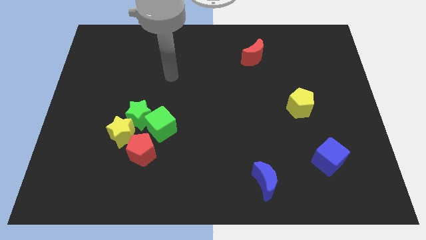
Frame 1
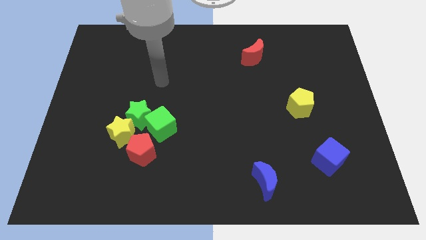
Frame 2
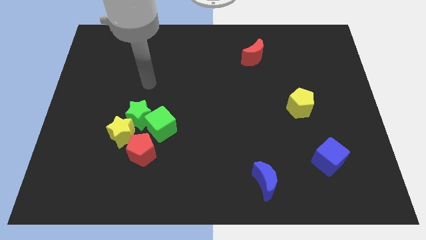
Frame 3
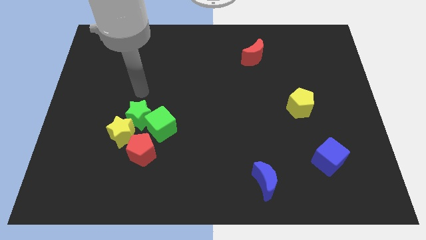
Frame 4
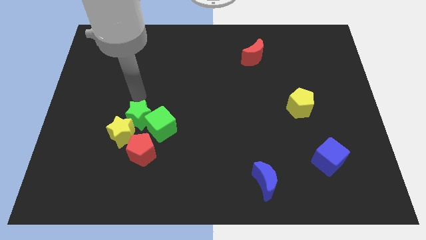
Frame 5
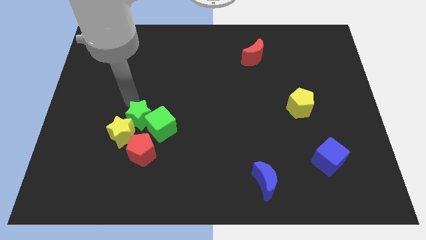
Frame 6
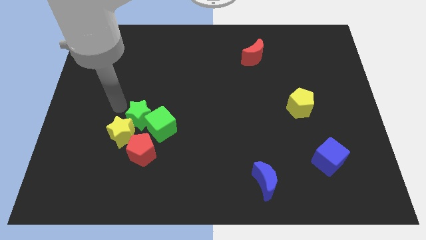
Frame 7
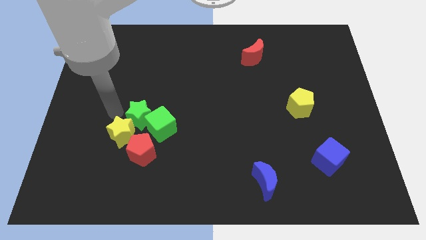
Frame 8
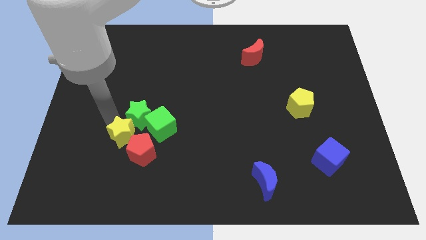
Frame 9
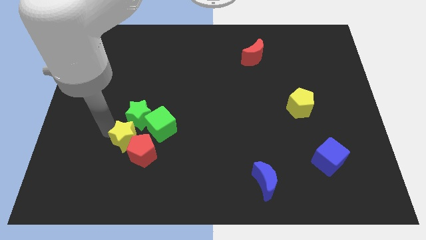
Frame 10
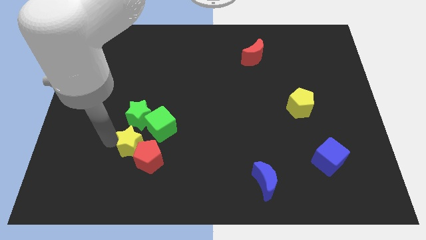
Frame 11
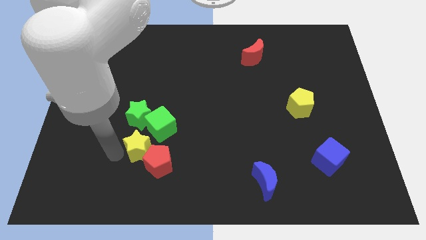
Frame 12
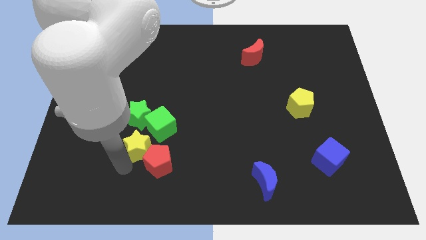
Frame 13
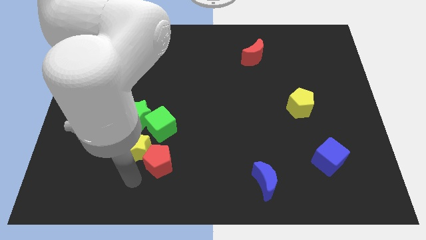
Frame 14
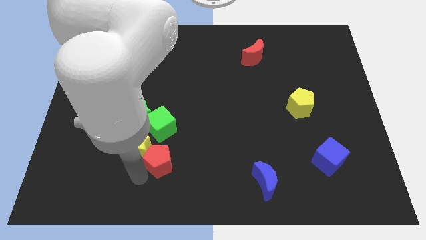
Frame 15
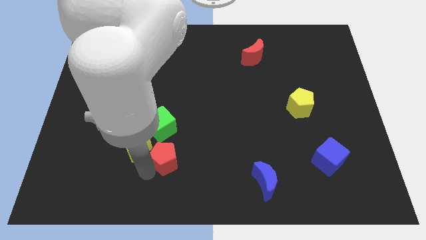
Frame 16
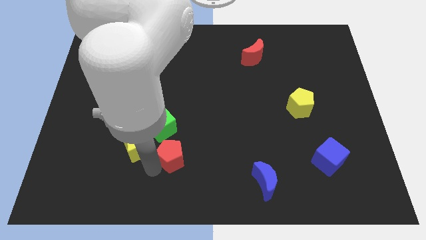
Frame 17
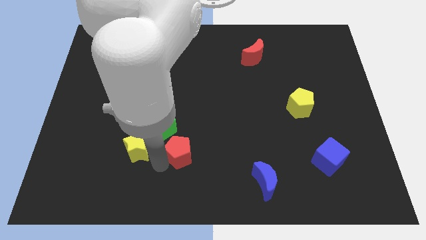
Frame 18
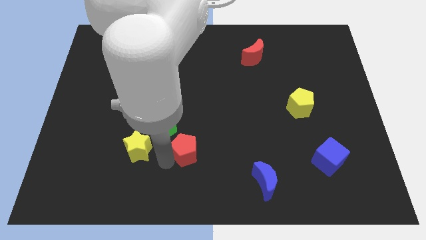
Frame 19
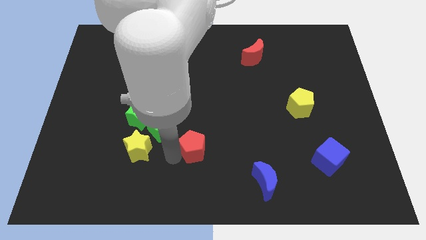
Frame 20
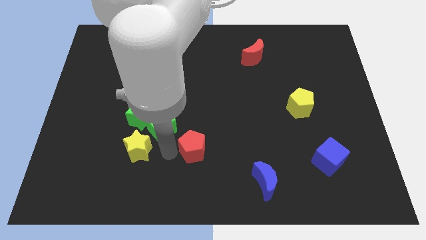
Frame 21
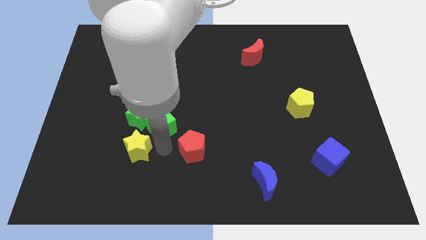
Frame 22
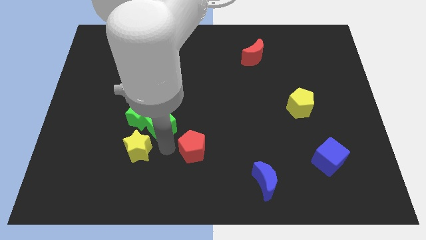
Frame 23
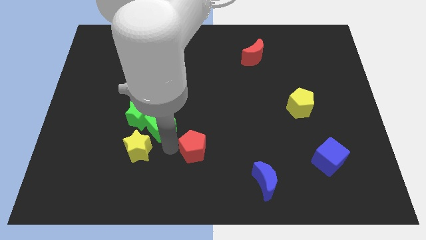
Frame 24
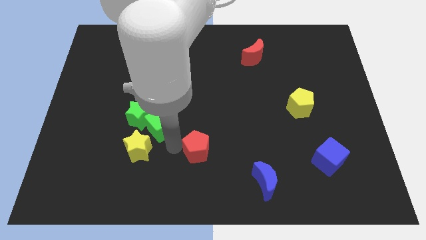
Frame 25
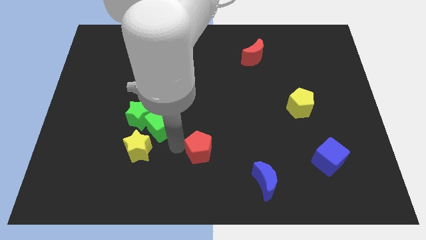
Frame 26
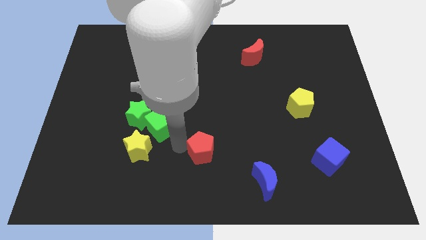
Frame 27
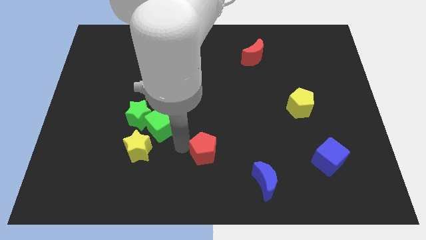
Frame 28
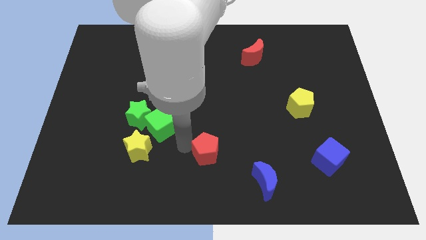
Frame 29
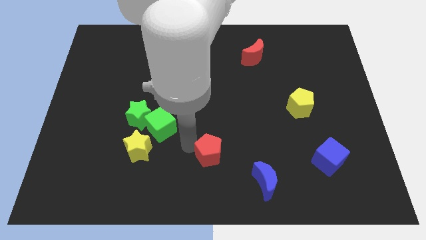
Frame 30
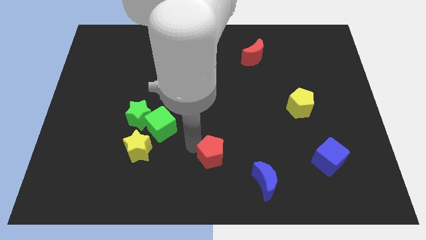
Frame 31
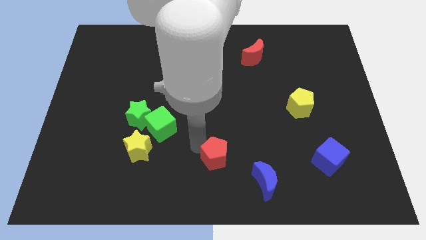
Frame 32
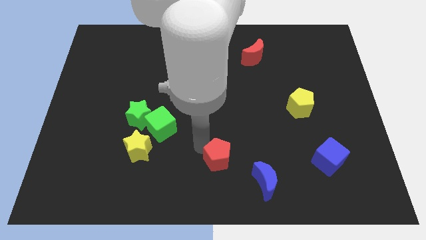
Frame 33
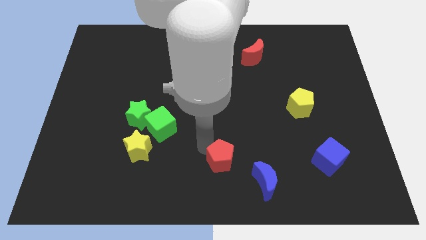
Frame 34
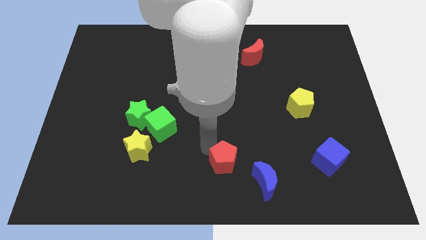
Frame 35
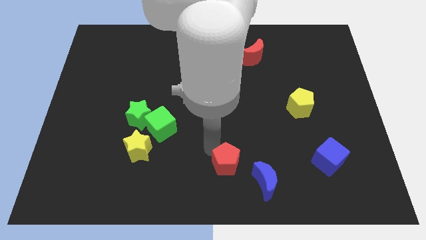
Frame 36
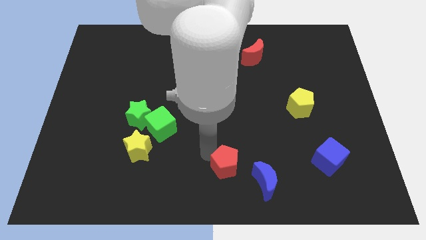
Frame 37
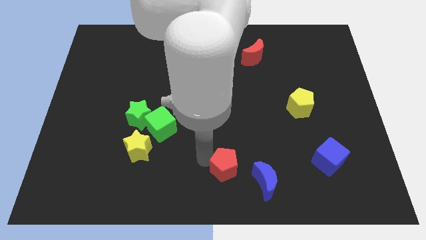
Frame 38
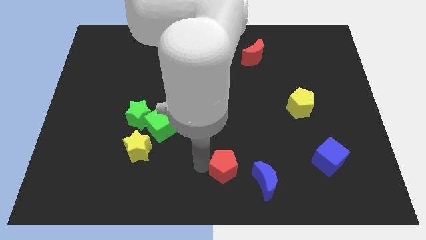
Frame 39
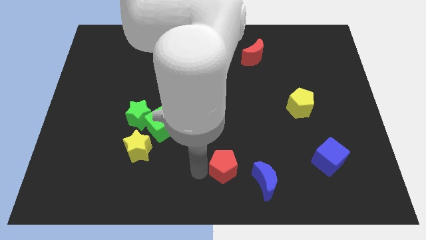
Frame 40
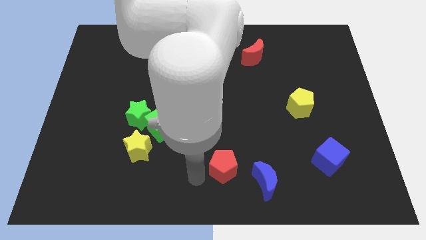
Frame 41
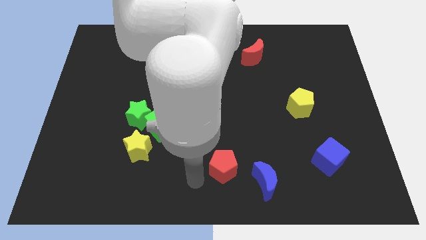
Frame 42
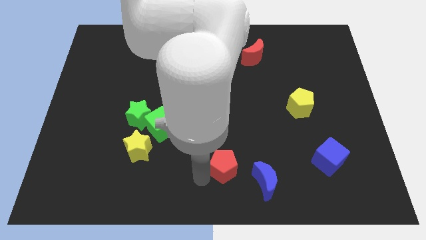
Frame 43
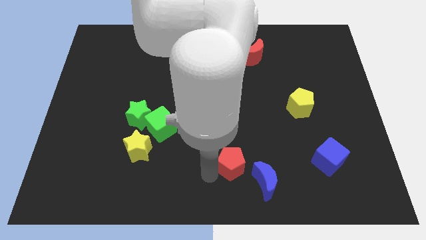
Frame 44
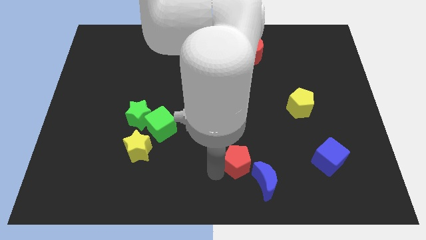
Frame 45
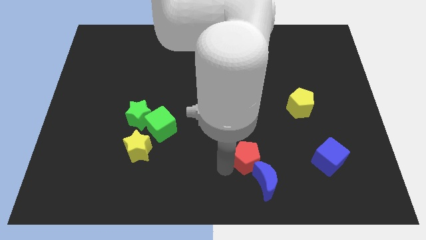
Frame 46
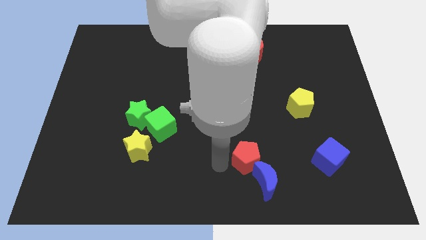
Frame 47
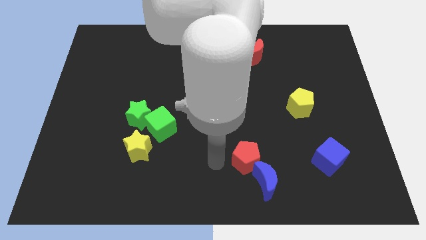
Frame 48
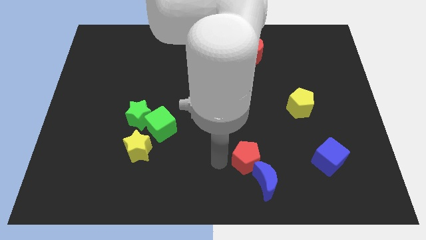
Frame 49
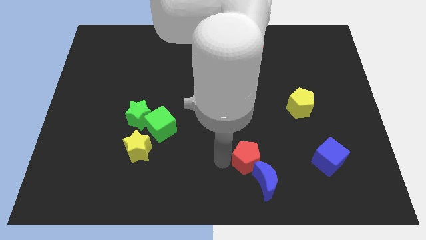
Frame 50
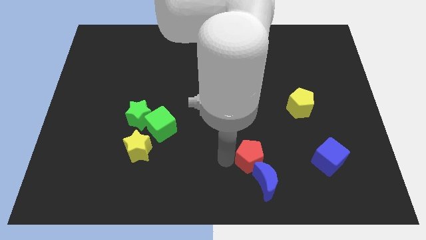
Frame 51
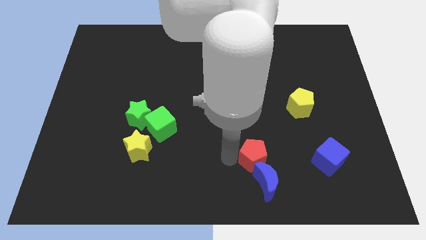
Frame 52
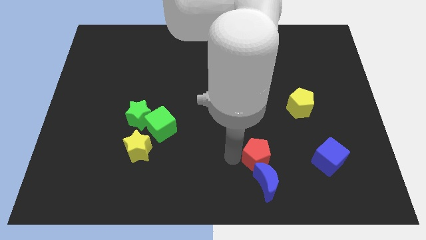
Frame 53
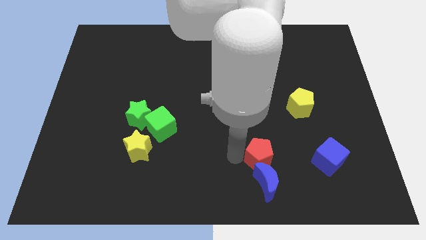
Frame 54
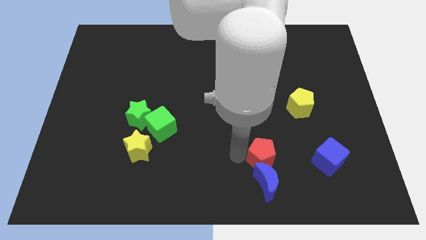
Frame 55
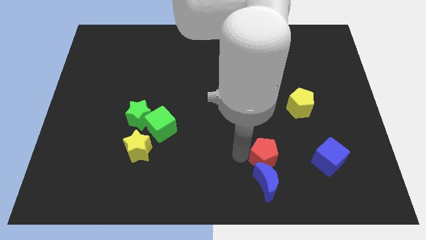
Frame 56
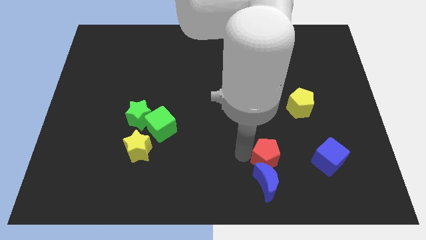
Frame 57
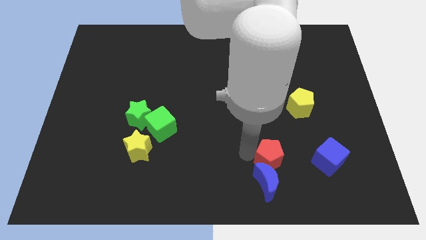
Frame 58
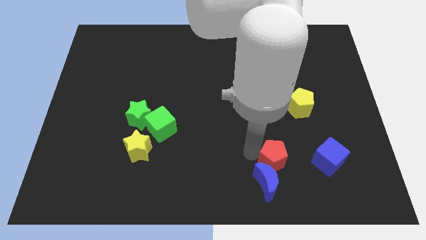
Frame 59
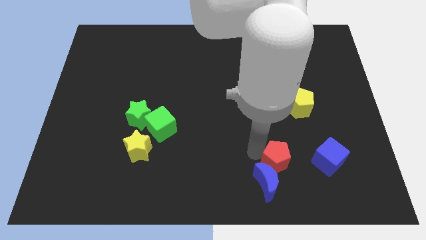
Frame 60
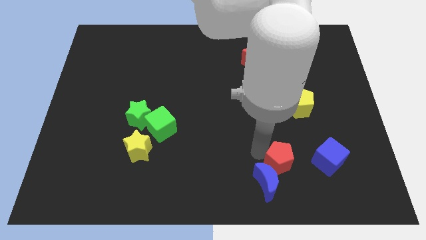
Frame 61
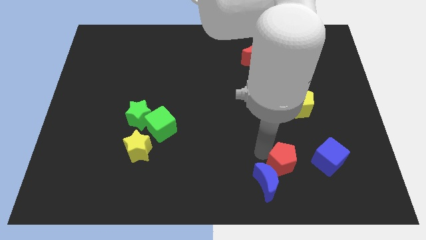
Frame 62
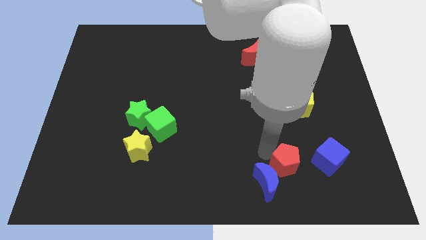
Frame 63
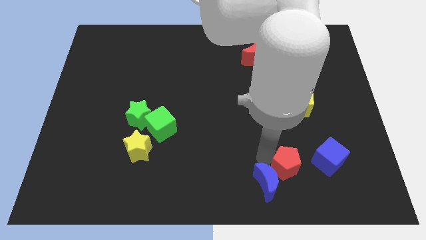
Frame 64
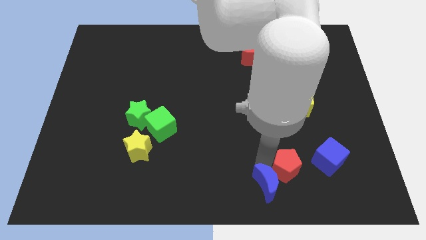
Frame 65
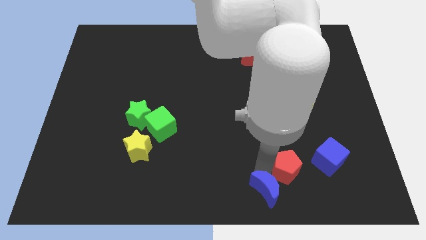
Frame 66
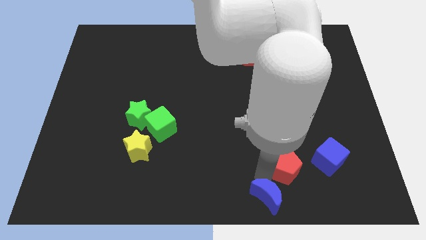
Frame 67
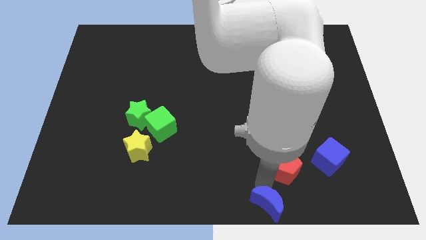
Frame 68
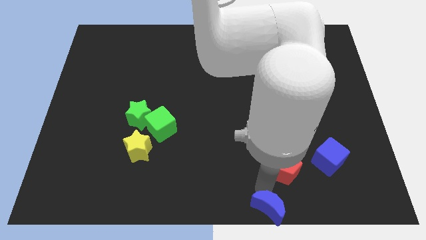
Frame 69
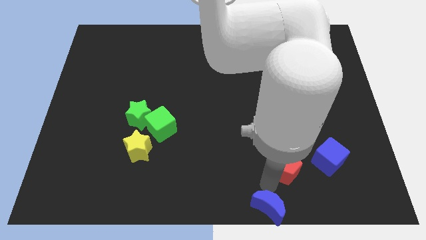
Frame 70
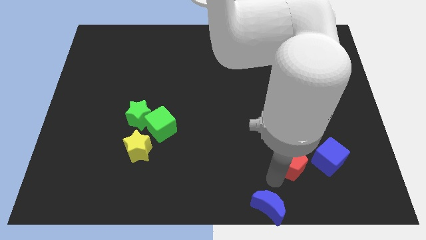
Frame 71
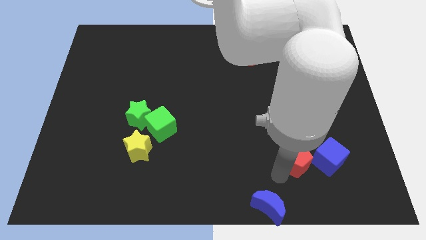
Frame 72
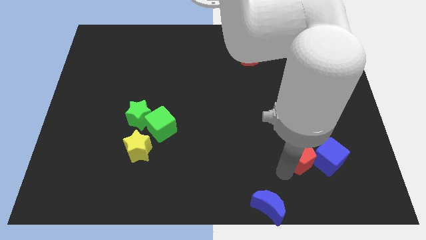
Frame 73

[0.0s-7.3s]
put the red pentagon towards the blue cube

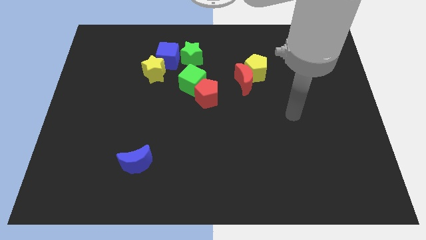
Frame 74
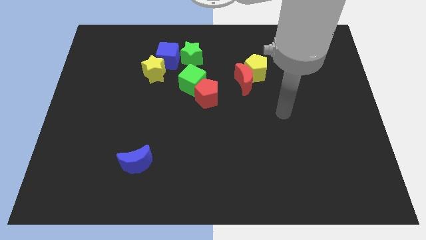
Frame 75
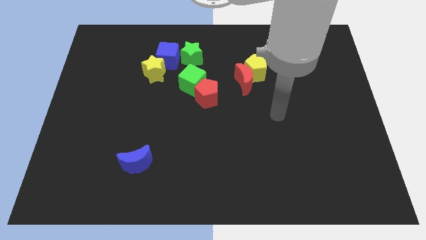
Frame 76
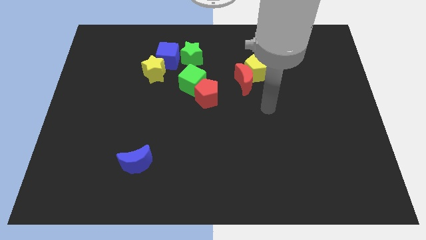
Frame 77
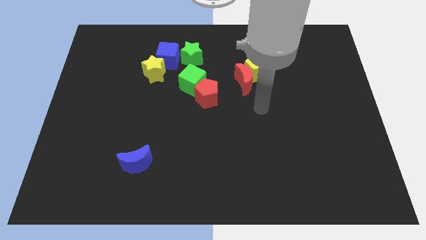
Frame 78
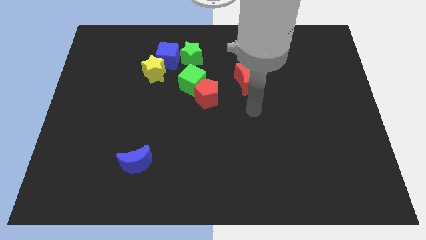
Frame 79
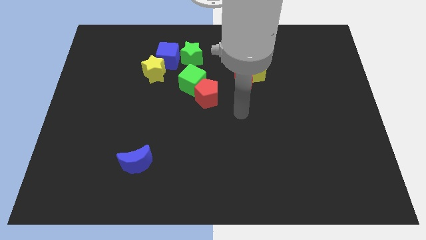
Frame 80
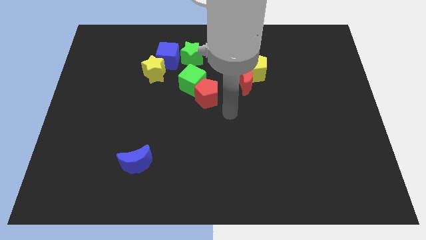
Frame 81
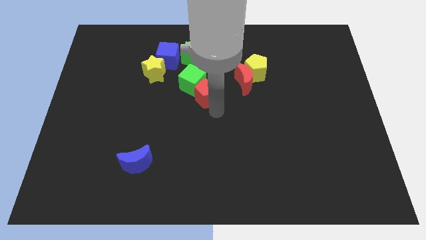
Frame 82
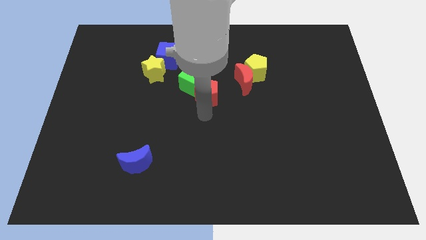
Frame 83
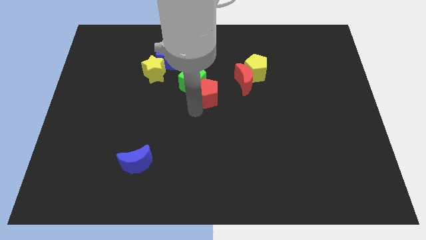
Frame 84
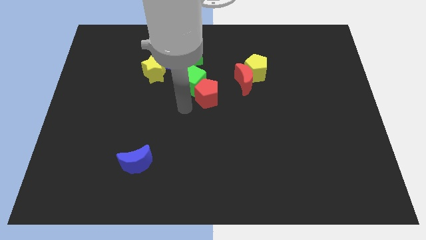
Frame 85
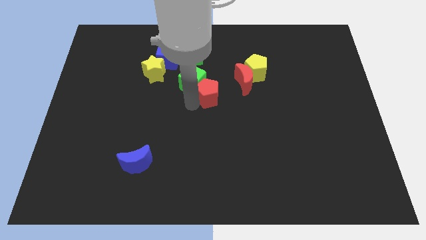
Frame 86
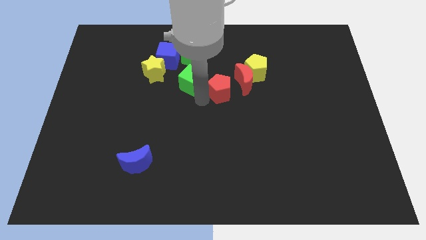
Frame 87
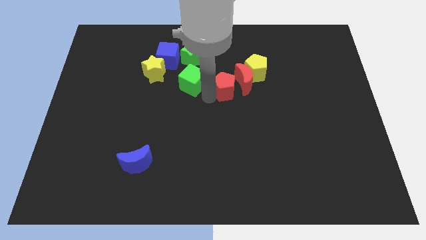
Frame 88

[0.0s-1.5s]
move the red pentagon to the red moon
